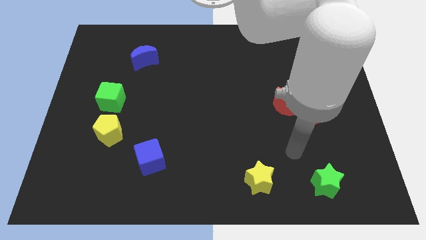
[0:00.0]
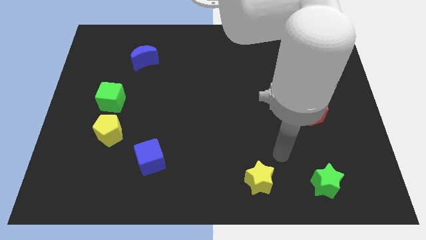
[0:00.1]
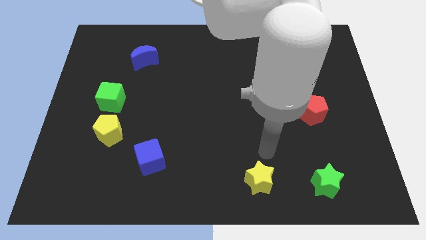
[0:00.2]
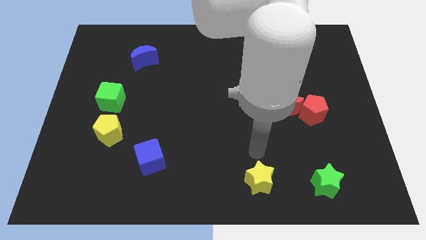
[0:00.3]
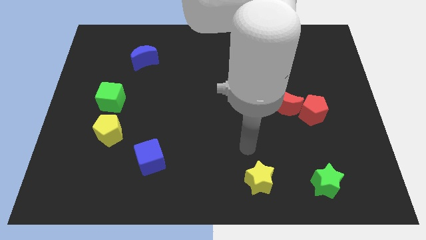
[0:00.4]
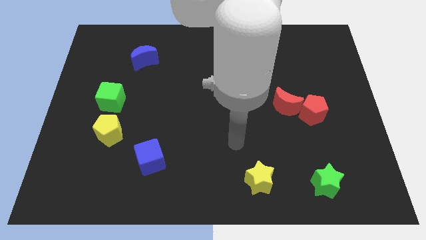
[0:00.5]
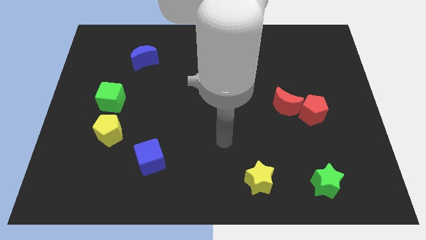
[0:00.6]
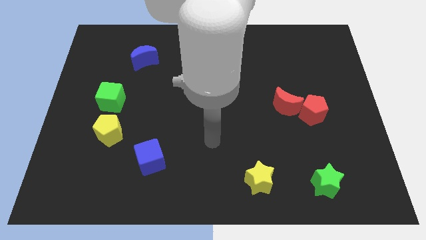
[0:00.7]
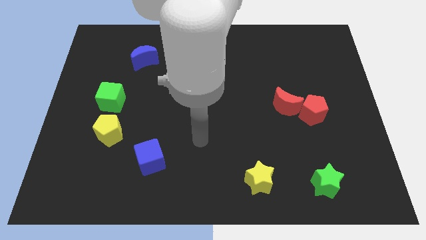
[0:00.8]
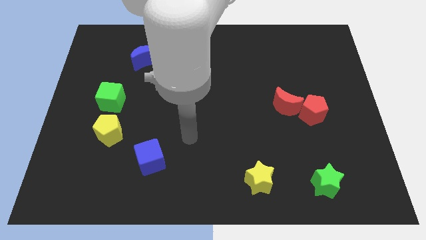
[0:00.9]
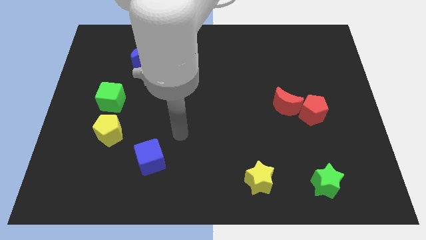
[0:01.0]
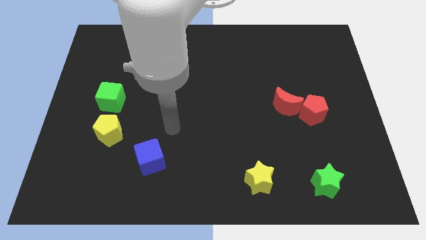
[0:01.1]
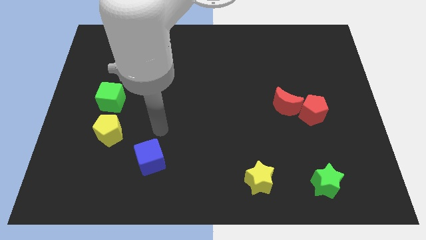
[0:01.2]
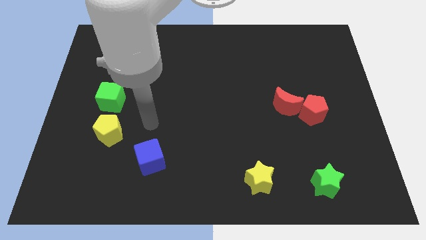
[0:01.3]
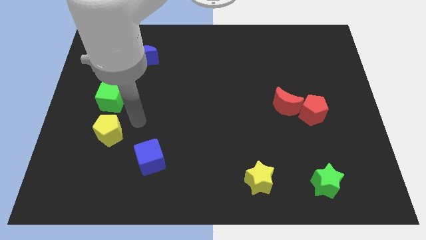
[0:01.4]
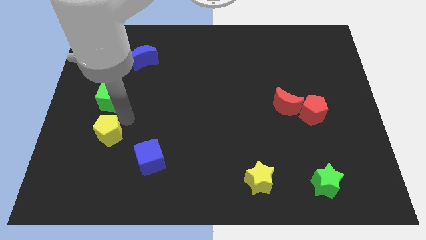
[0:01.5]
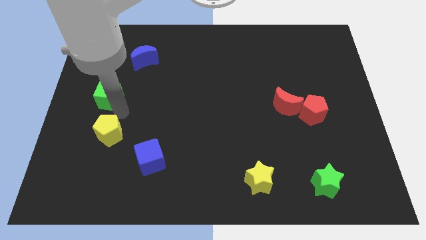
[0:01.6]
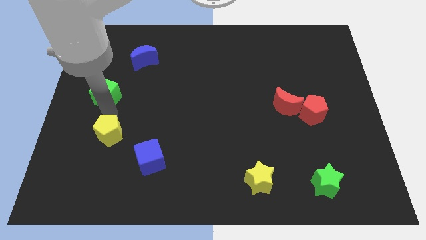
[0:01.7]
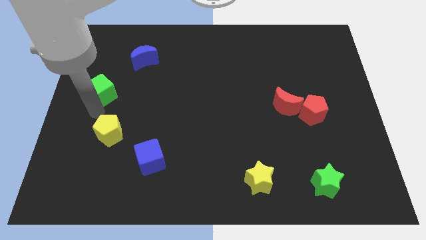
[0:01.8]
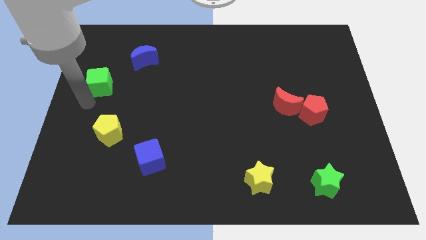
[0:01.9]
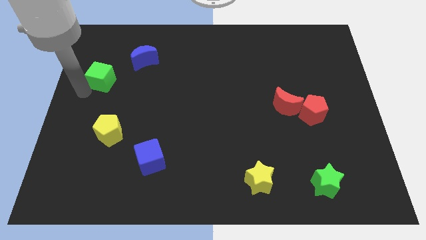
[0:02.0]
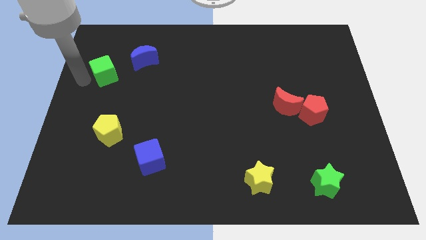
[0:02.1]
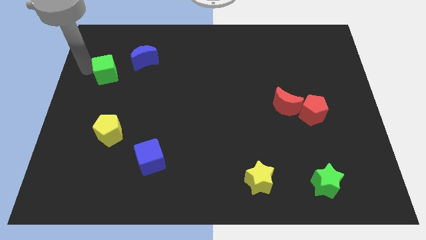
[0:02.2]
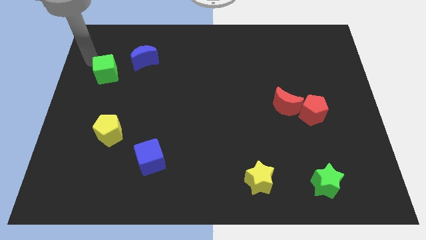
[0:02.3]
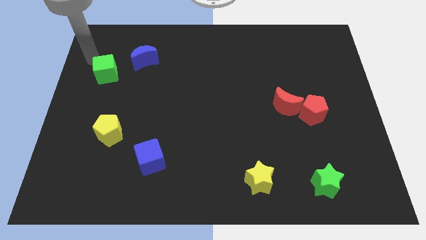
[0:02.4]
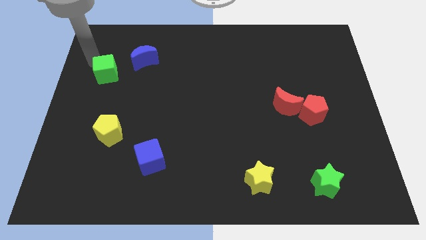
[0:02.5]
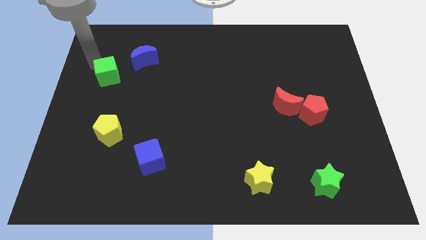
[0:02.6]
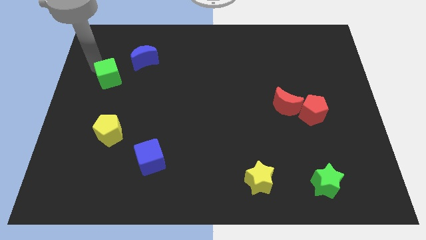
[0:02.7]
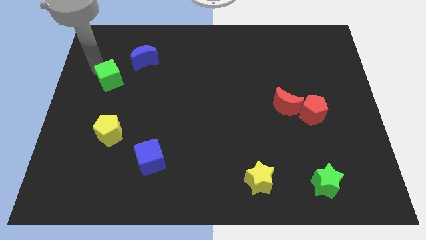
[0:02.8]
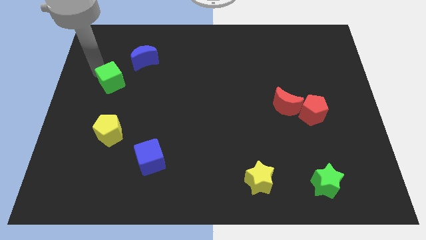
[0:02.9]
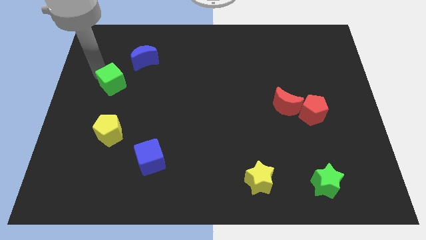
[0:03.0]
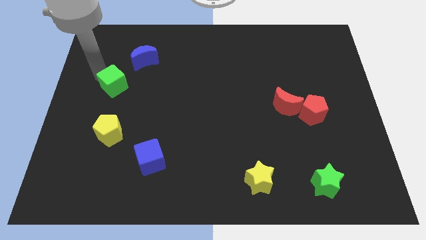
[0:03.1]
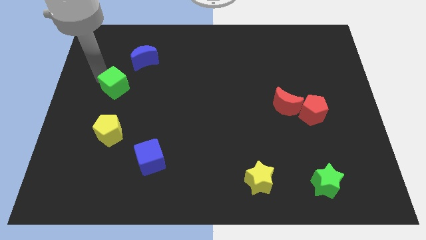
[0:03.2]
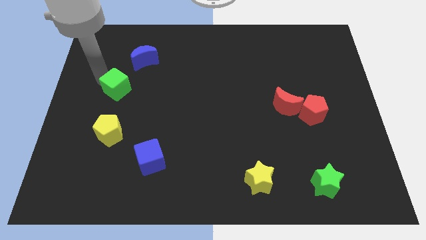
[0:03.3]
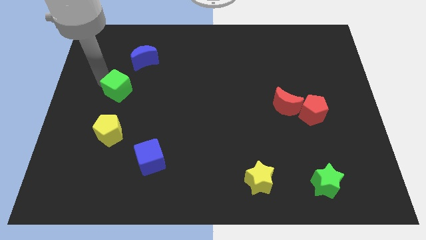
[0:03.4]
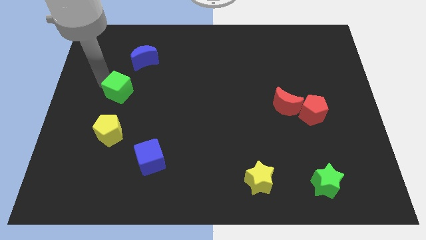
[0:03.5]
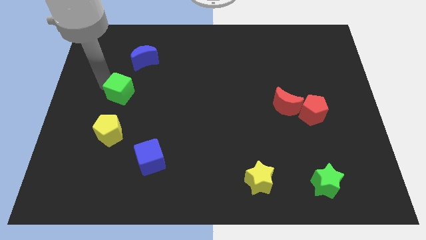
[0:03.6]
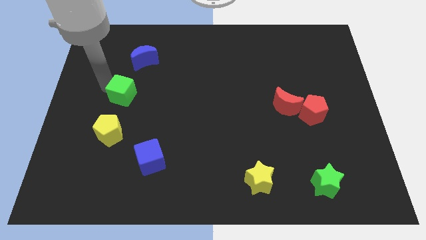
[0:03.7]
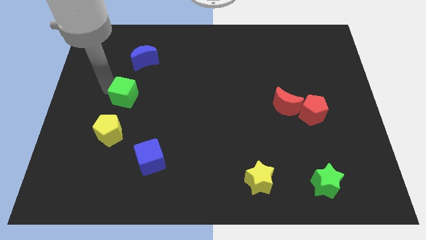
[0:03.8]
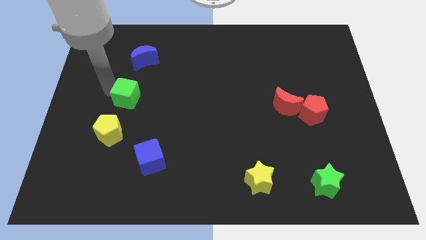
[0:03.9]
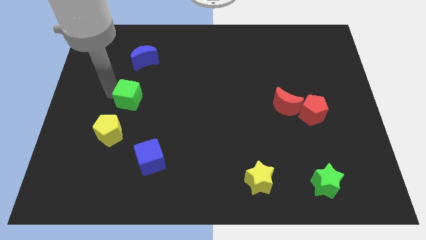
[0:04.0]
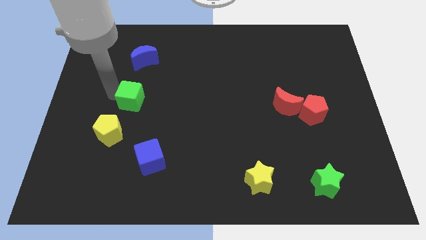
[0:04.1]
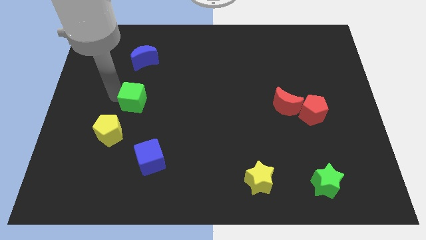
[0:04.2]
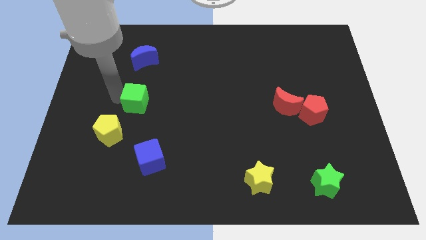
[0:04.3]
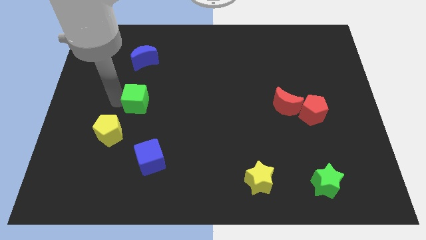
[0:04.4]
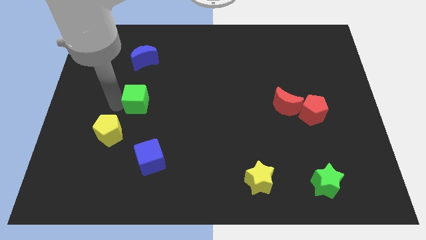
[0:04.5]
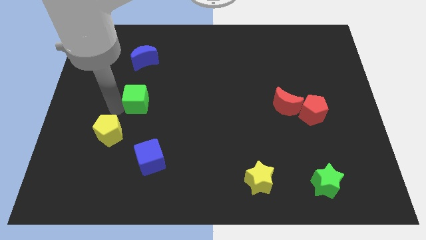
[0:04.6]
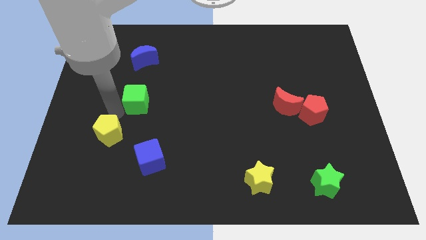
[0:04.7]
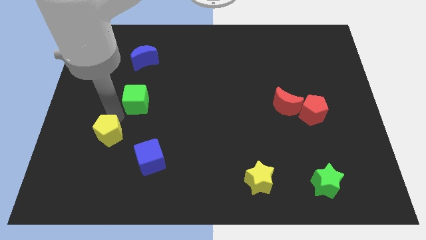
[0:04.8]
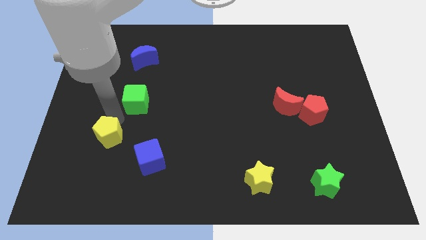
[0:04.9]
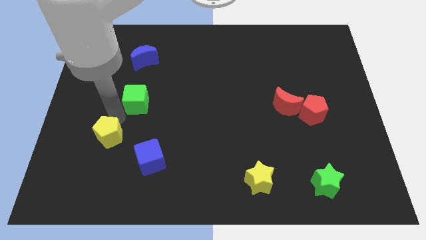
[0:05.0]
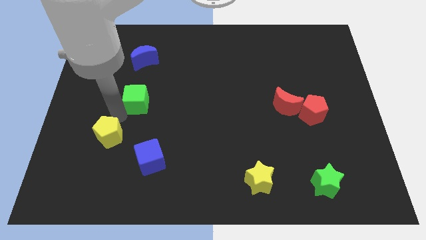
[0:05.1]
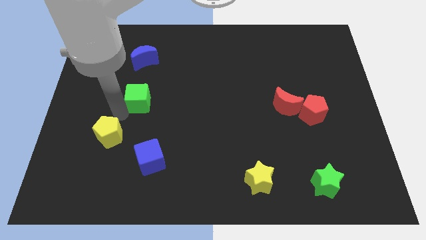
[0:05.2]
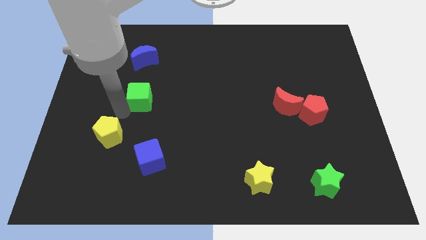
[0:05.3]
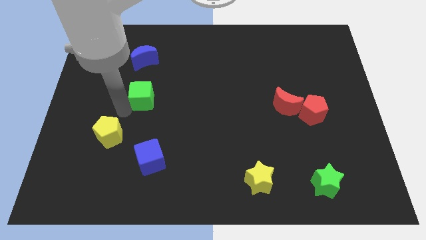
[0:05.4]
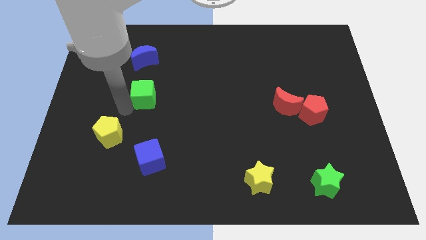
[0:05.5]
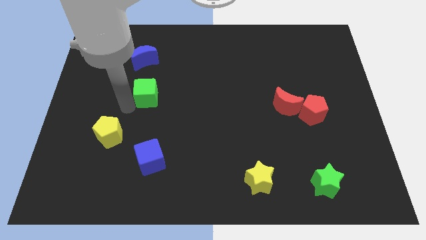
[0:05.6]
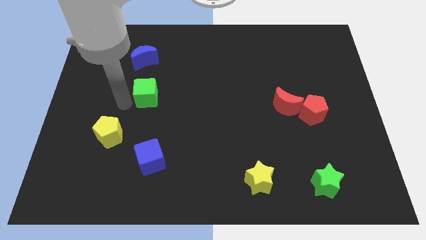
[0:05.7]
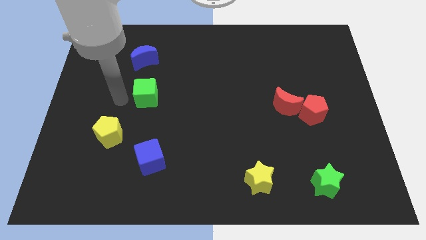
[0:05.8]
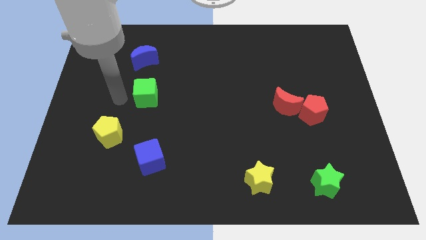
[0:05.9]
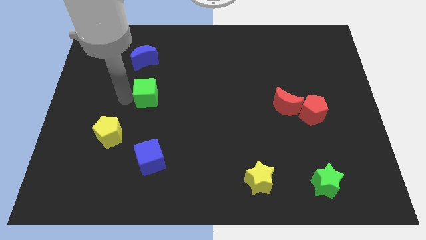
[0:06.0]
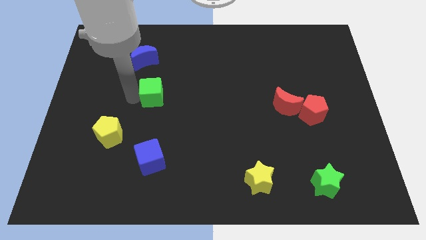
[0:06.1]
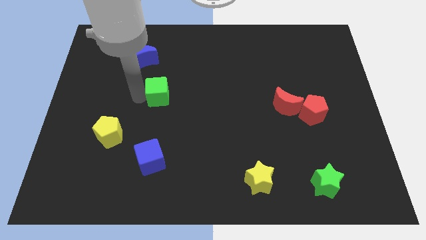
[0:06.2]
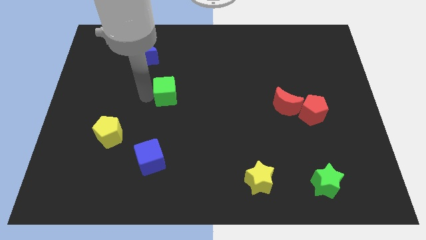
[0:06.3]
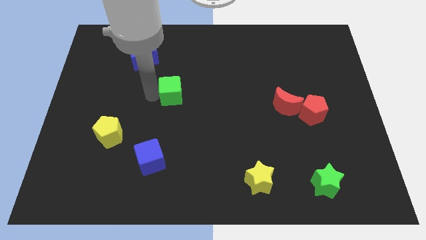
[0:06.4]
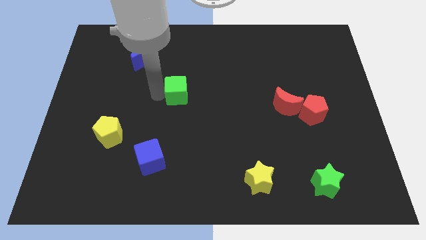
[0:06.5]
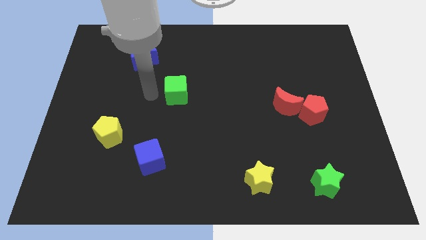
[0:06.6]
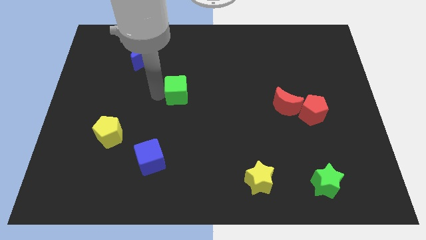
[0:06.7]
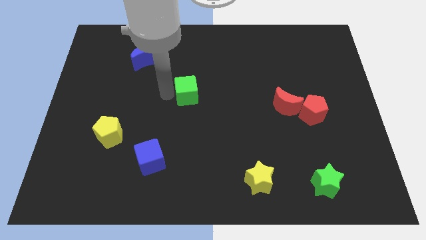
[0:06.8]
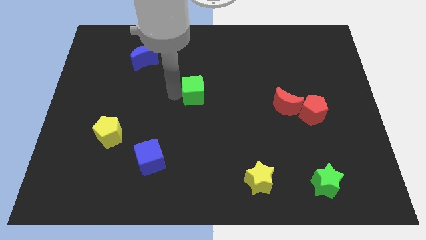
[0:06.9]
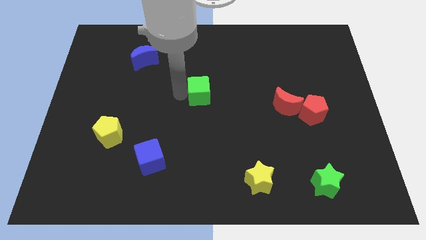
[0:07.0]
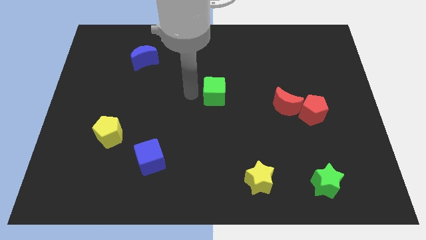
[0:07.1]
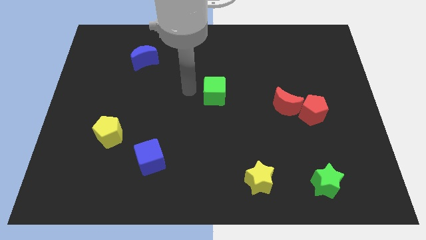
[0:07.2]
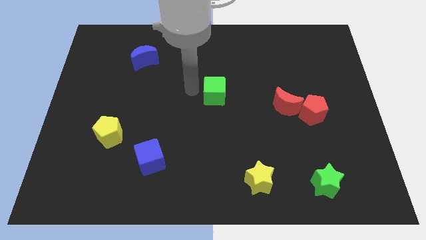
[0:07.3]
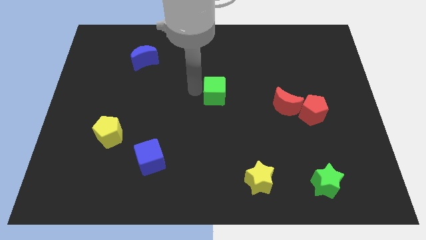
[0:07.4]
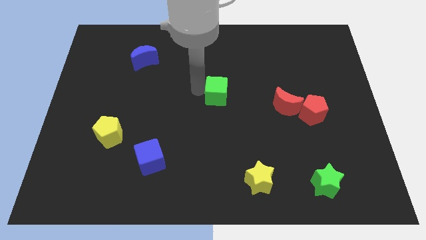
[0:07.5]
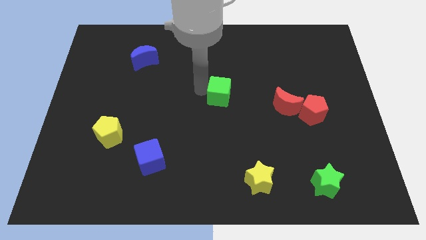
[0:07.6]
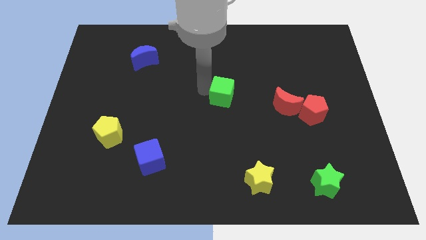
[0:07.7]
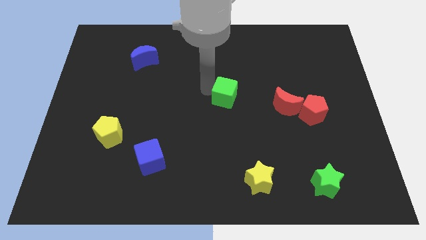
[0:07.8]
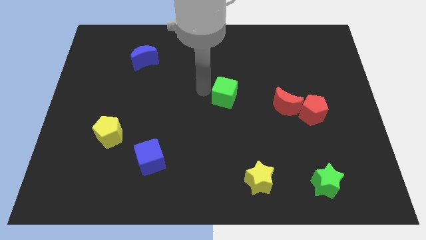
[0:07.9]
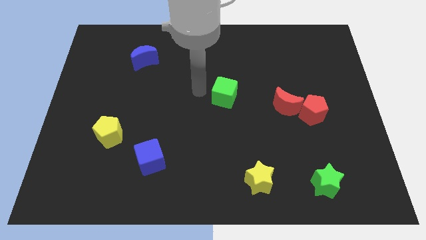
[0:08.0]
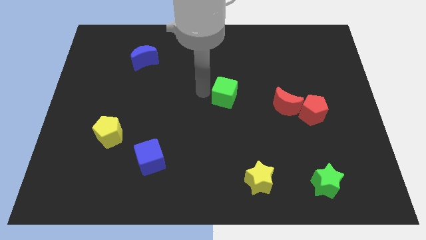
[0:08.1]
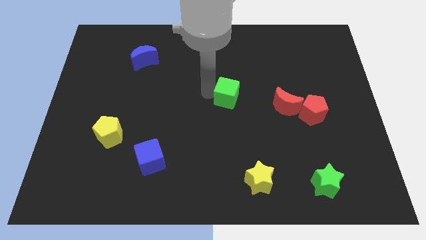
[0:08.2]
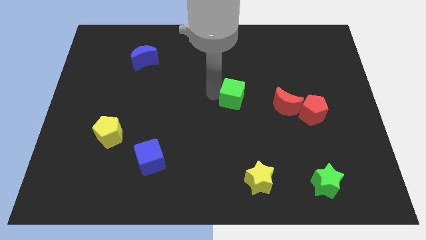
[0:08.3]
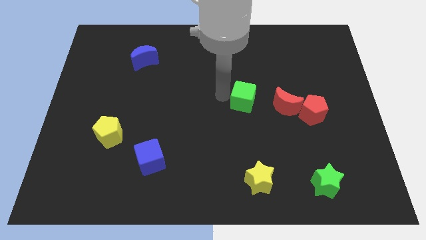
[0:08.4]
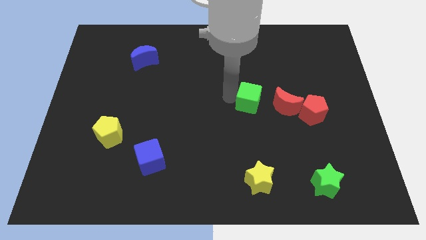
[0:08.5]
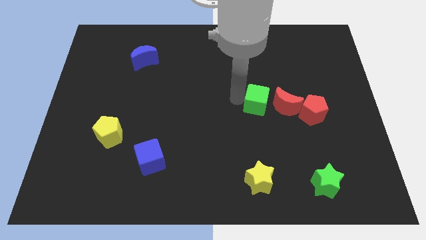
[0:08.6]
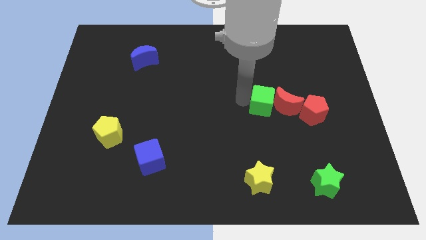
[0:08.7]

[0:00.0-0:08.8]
slide the green cube next to the red moon
